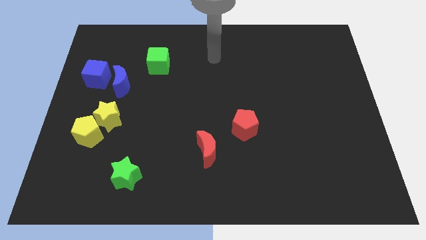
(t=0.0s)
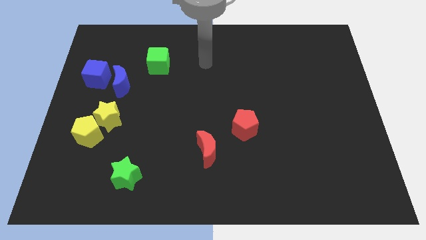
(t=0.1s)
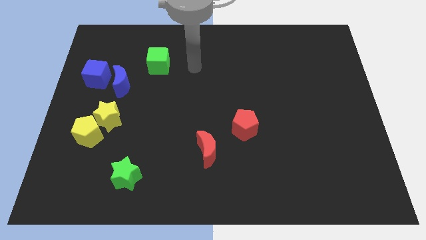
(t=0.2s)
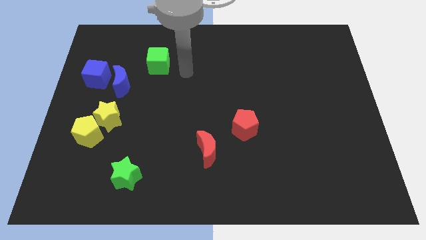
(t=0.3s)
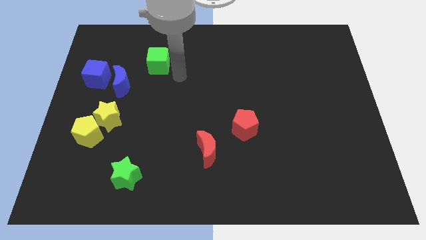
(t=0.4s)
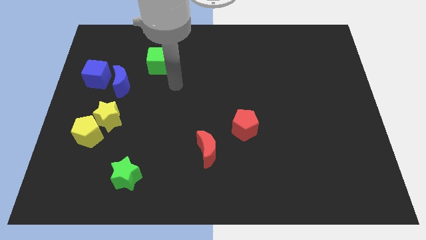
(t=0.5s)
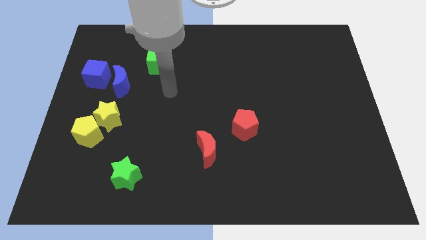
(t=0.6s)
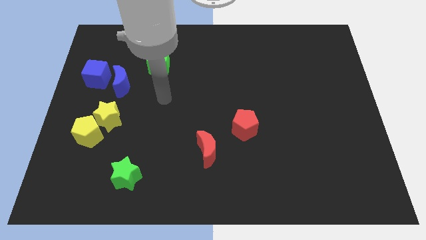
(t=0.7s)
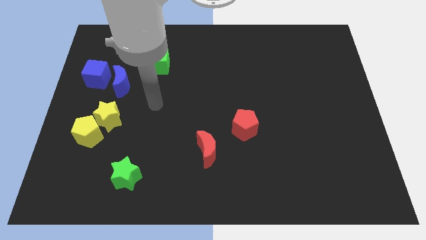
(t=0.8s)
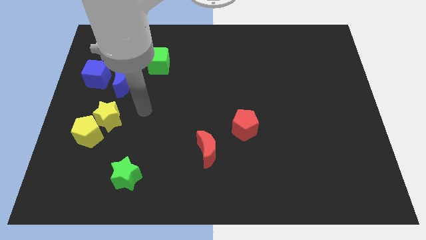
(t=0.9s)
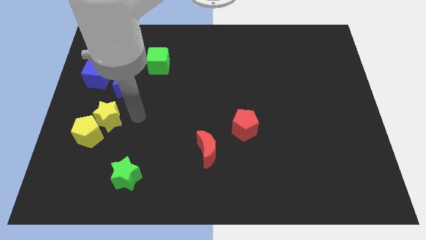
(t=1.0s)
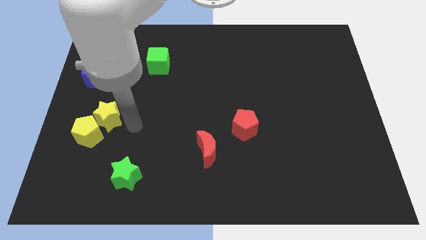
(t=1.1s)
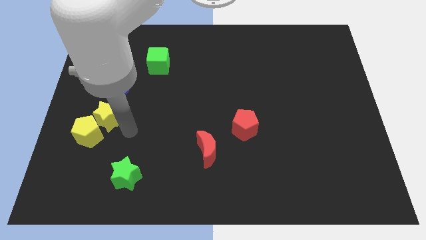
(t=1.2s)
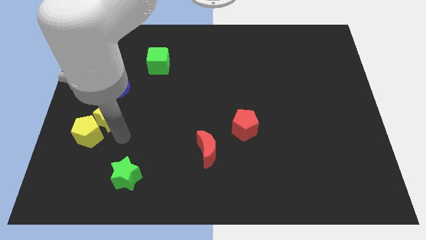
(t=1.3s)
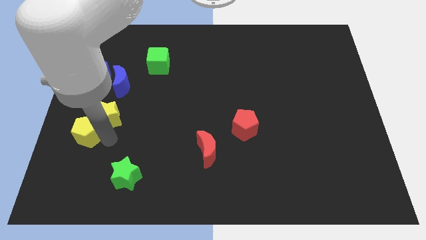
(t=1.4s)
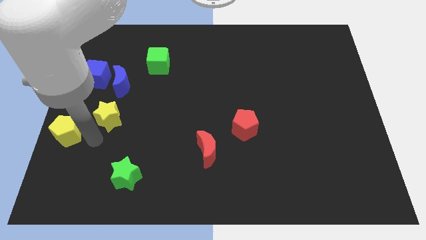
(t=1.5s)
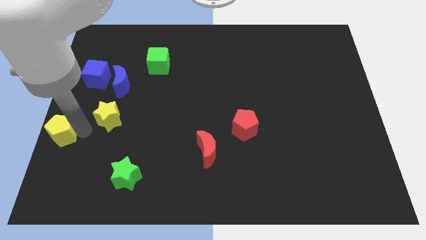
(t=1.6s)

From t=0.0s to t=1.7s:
separate the yellow star from the yellow pentagon

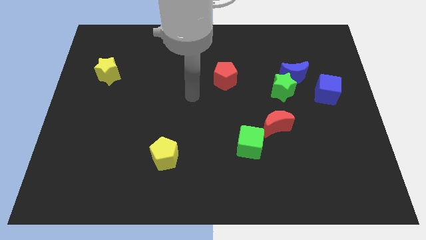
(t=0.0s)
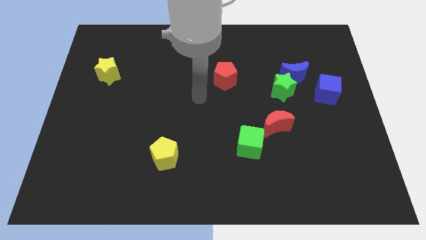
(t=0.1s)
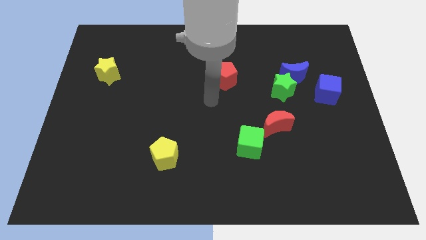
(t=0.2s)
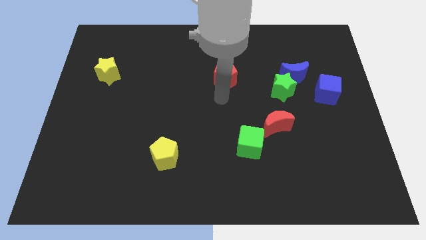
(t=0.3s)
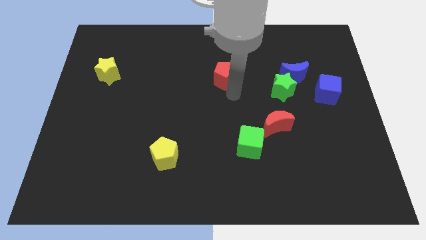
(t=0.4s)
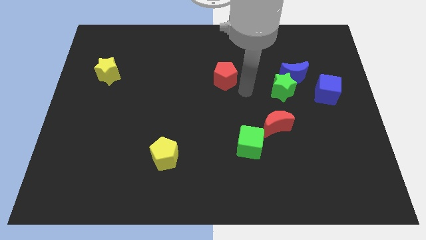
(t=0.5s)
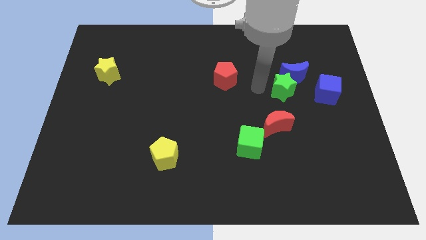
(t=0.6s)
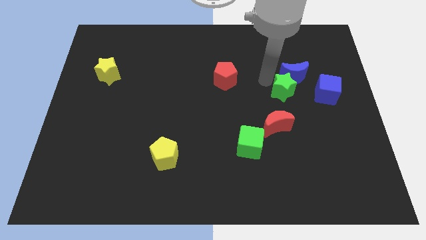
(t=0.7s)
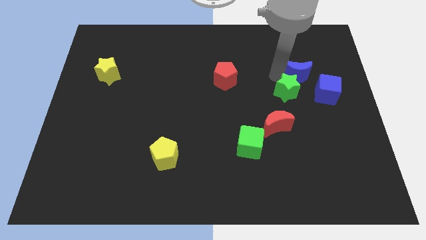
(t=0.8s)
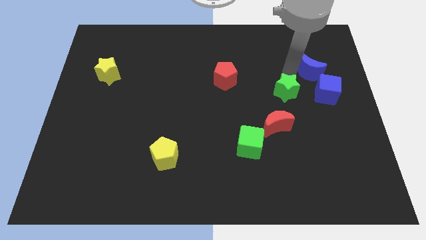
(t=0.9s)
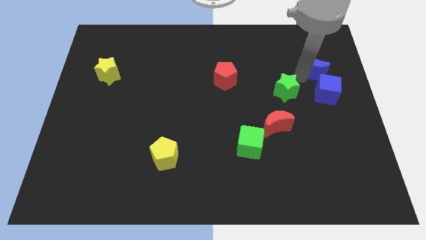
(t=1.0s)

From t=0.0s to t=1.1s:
move the green star away from the blue moon

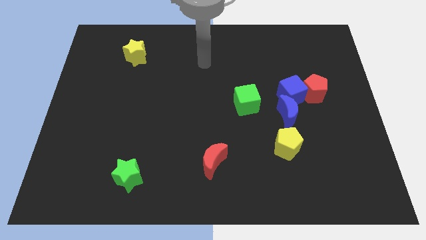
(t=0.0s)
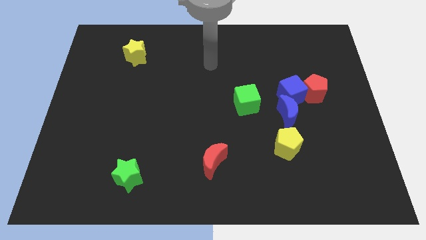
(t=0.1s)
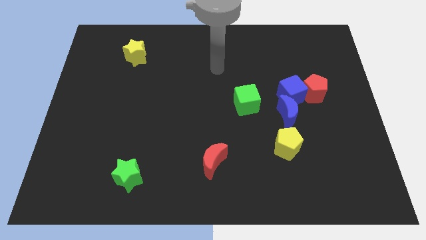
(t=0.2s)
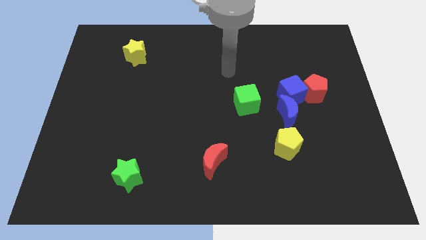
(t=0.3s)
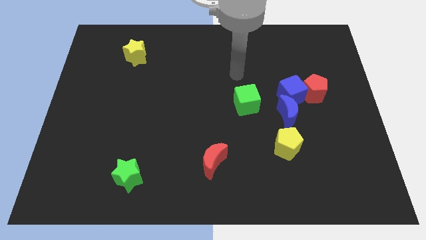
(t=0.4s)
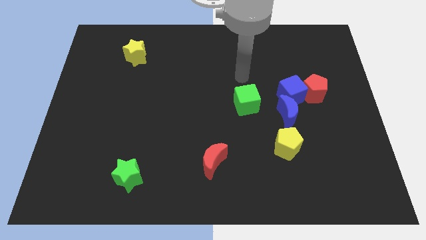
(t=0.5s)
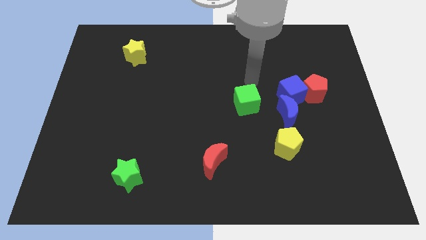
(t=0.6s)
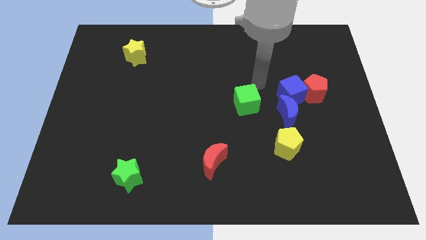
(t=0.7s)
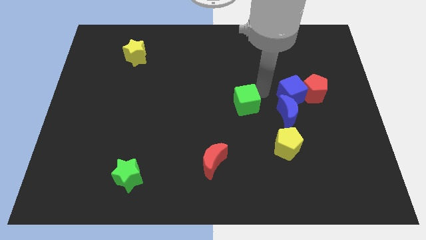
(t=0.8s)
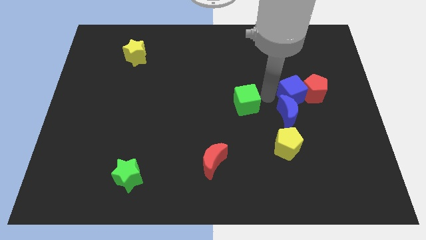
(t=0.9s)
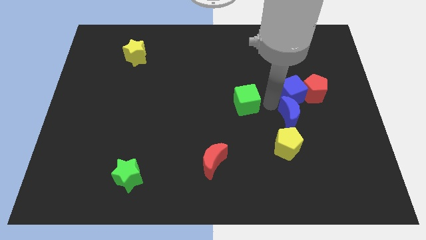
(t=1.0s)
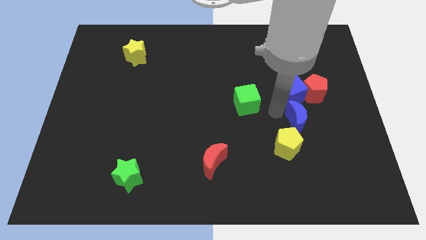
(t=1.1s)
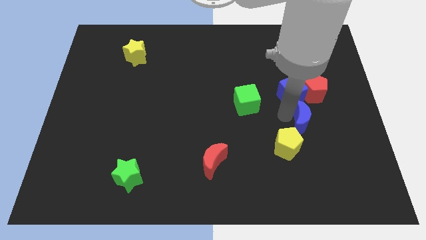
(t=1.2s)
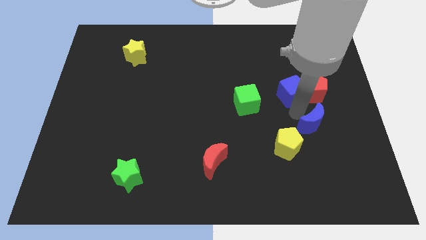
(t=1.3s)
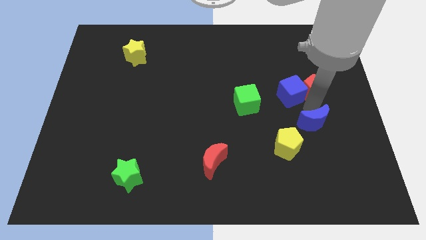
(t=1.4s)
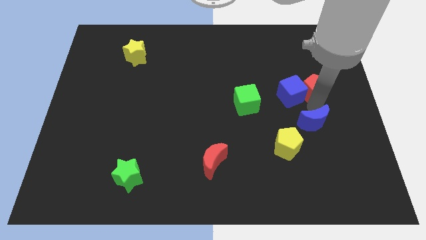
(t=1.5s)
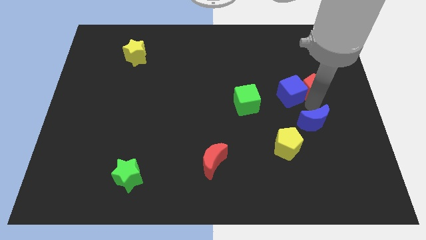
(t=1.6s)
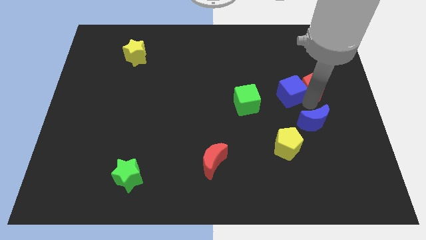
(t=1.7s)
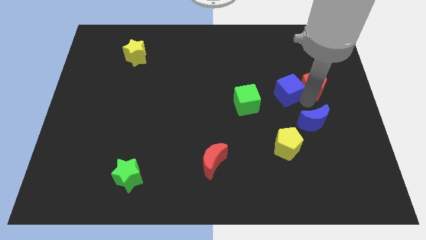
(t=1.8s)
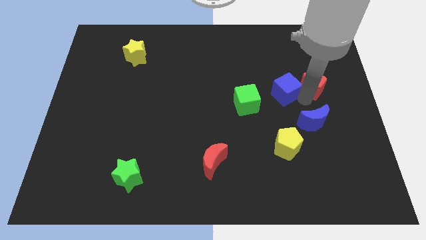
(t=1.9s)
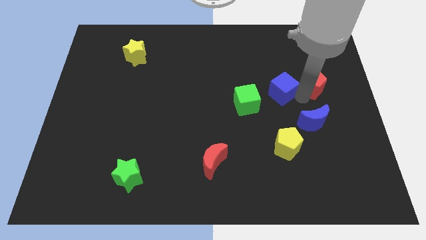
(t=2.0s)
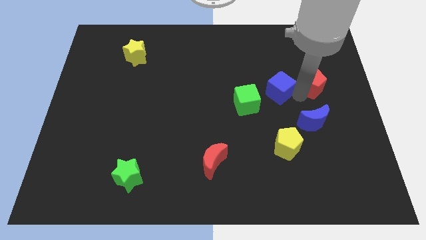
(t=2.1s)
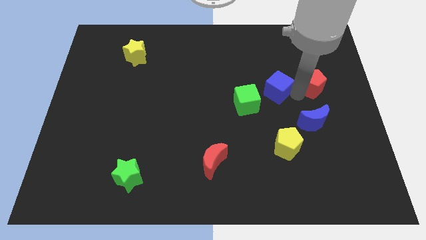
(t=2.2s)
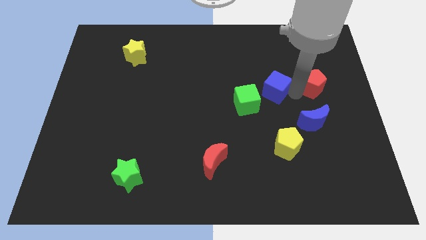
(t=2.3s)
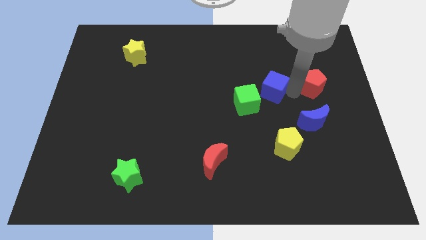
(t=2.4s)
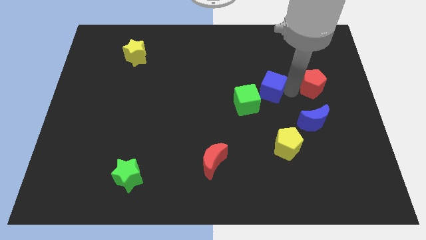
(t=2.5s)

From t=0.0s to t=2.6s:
move the blue cube away from the red pentagon and blue moon

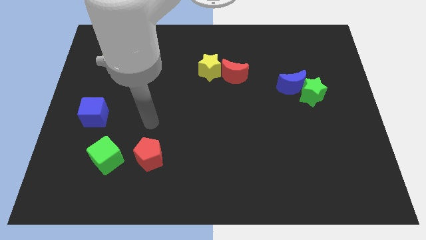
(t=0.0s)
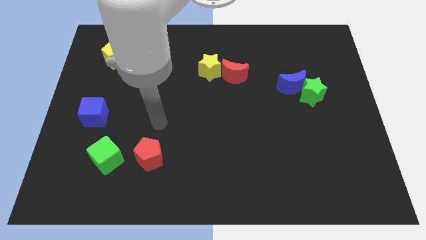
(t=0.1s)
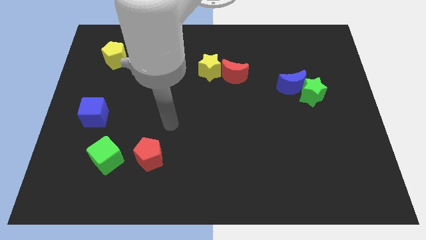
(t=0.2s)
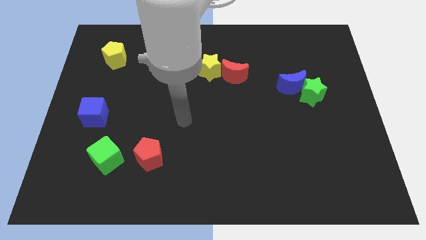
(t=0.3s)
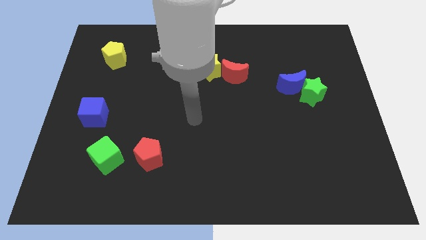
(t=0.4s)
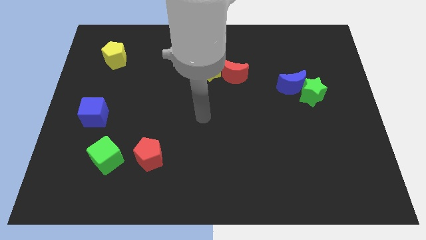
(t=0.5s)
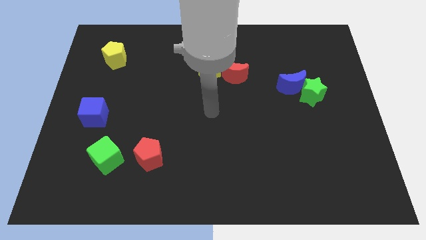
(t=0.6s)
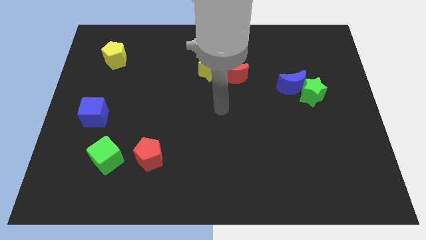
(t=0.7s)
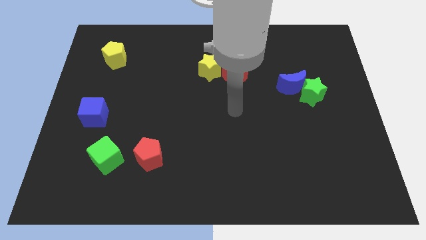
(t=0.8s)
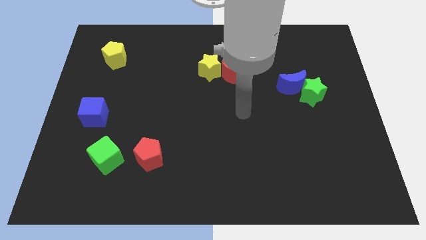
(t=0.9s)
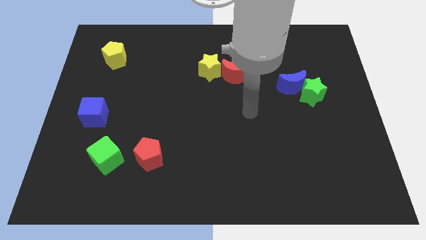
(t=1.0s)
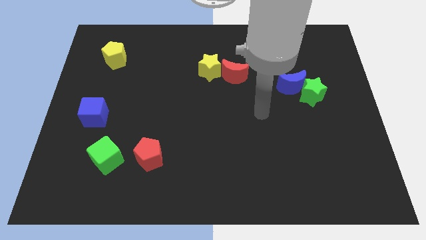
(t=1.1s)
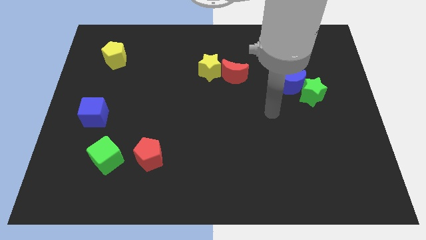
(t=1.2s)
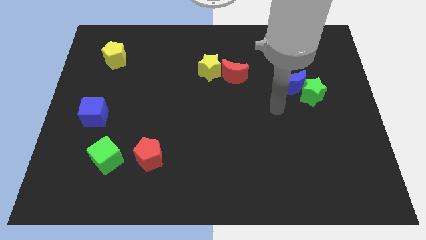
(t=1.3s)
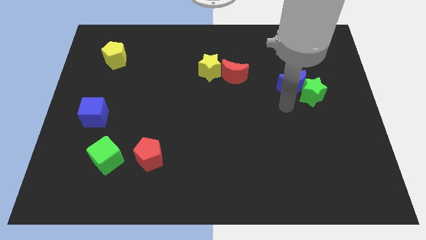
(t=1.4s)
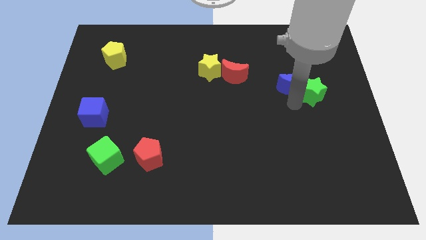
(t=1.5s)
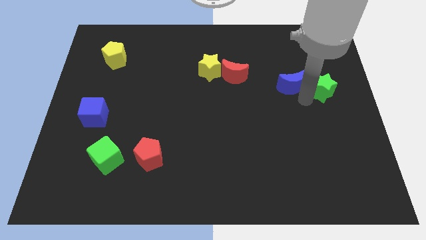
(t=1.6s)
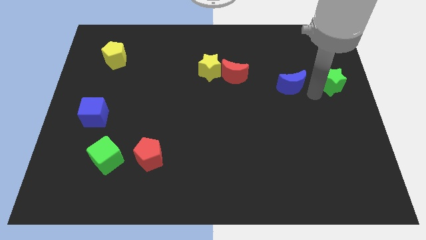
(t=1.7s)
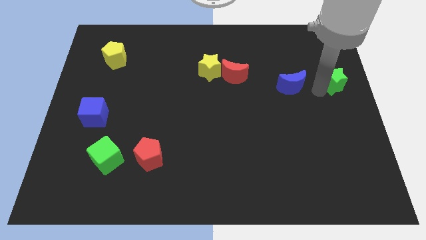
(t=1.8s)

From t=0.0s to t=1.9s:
move the blue moon away from the green star

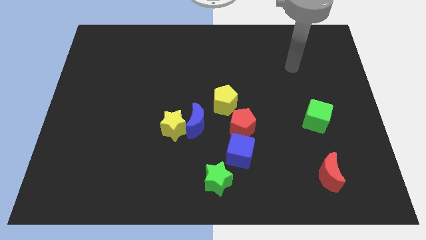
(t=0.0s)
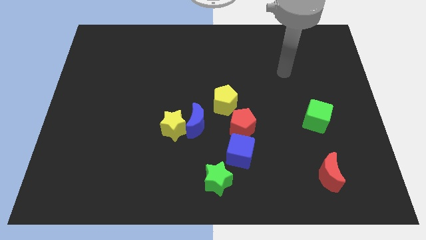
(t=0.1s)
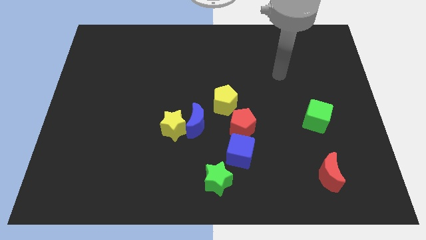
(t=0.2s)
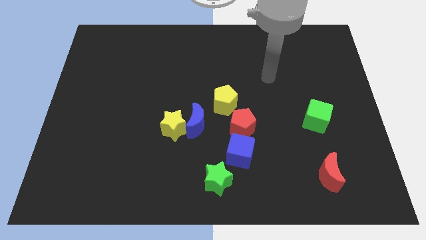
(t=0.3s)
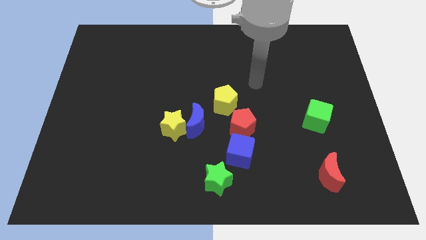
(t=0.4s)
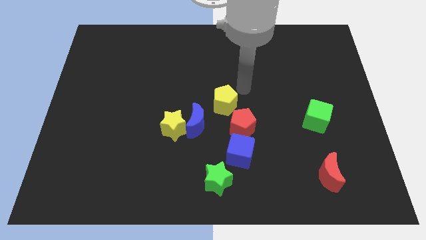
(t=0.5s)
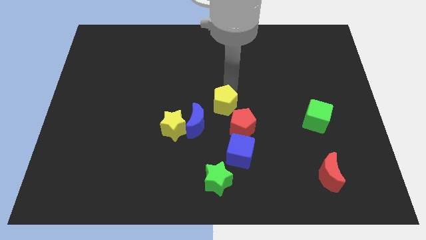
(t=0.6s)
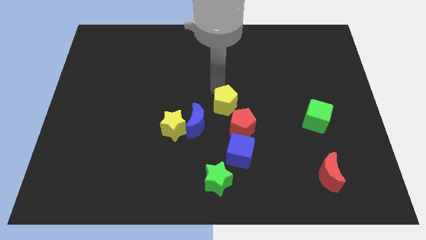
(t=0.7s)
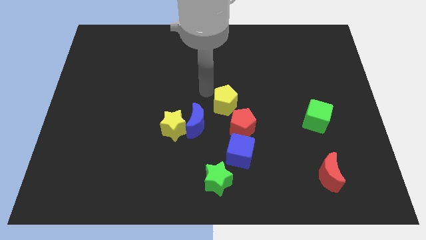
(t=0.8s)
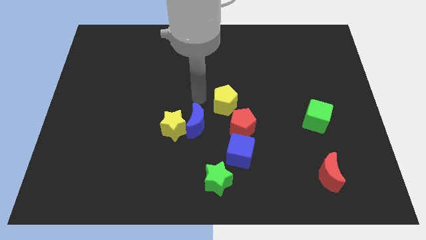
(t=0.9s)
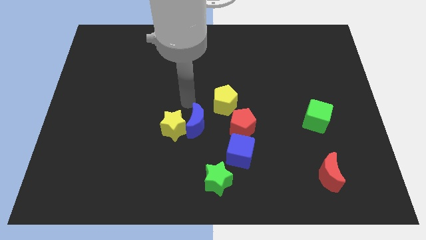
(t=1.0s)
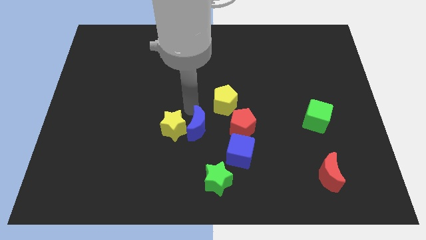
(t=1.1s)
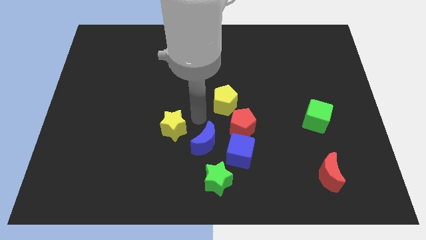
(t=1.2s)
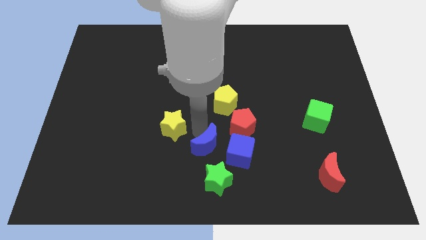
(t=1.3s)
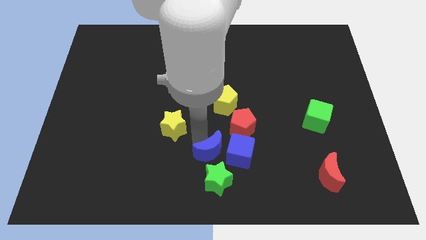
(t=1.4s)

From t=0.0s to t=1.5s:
separate the yellow star from the blue moon

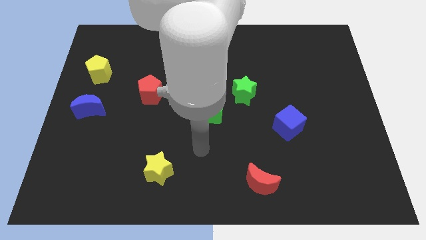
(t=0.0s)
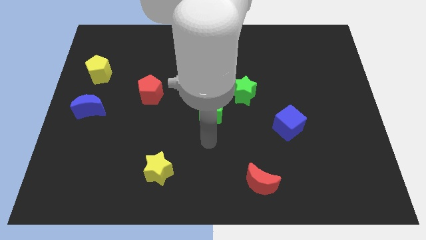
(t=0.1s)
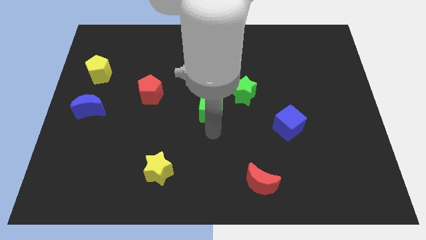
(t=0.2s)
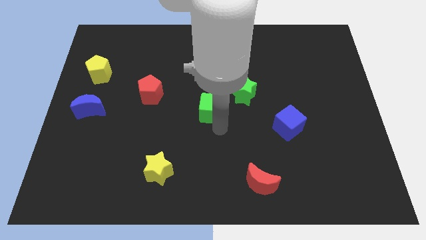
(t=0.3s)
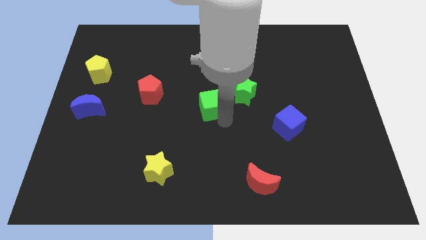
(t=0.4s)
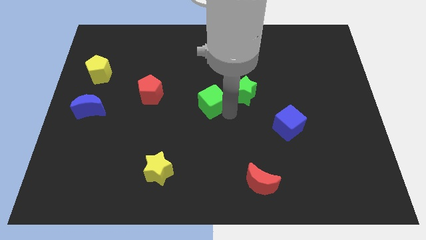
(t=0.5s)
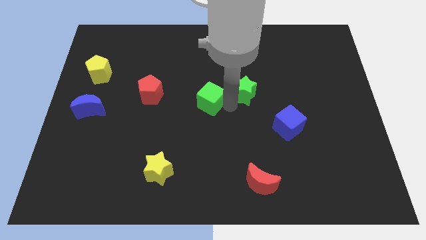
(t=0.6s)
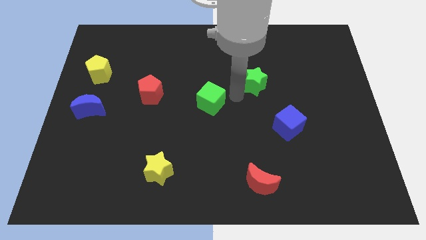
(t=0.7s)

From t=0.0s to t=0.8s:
pull the green cube apart from the green star
